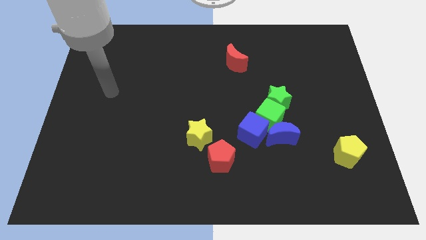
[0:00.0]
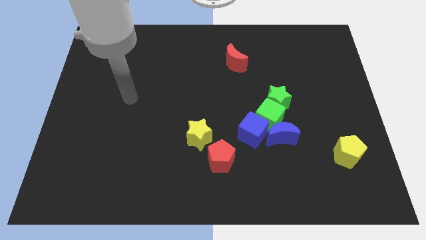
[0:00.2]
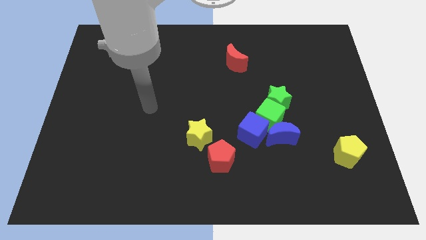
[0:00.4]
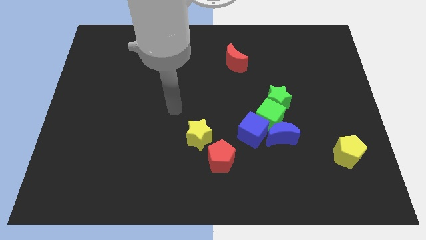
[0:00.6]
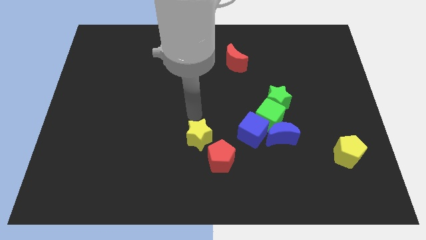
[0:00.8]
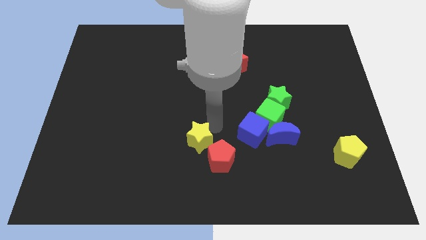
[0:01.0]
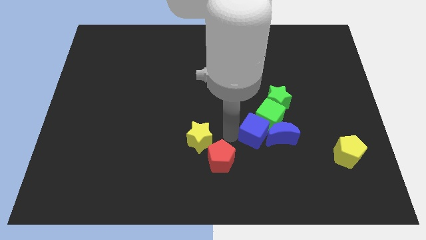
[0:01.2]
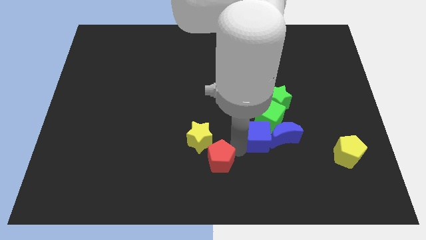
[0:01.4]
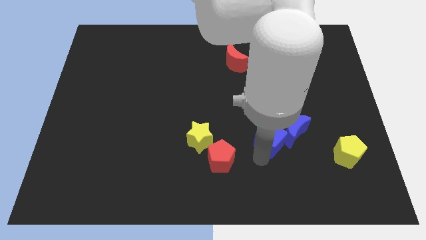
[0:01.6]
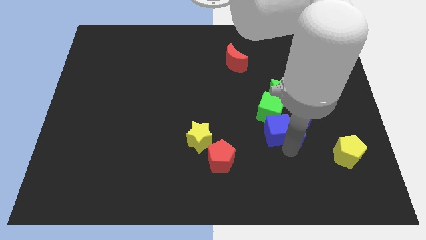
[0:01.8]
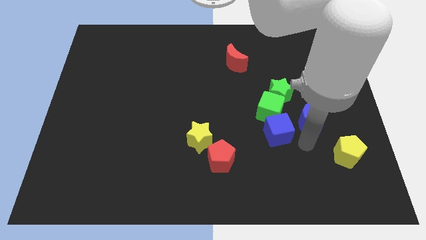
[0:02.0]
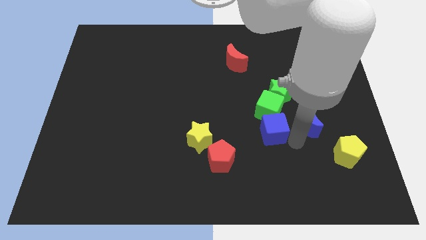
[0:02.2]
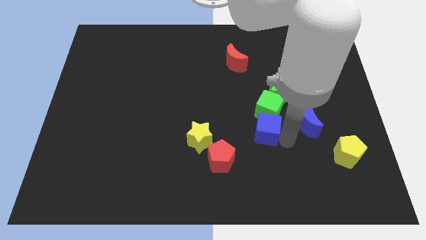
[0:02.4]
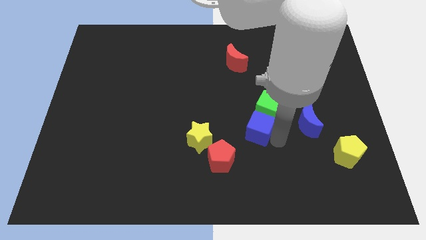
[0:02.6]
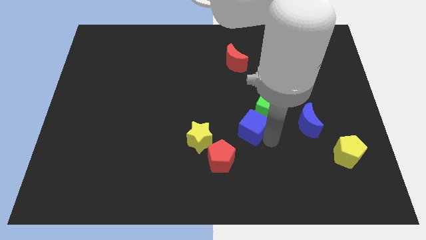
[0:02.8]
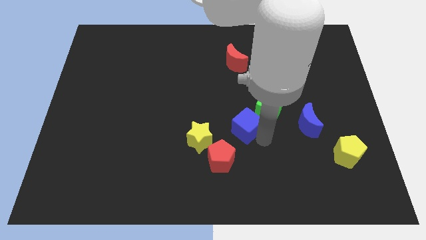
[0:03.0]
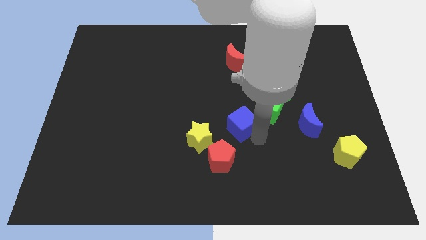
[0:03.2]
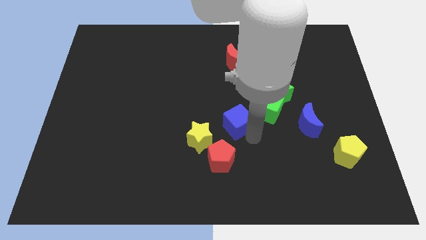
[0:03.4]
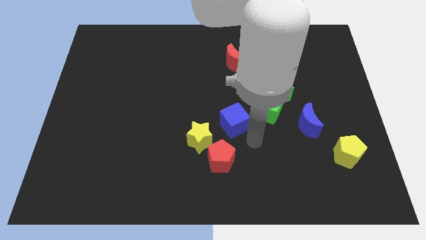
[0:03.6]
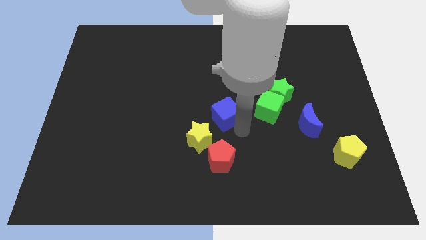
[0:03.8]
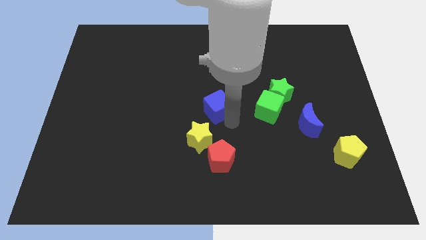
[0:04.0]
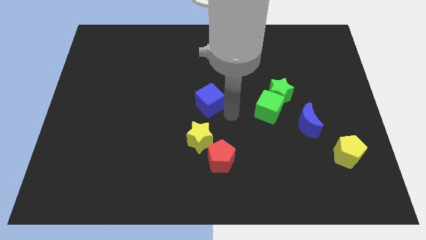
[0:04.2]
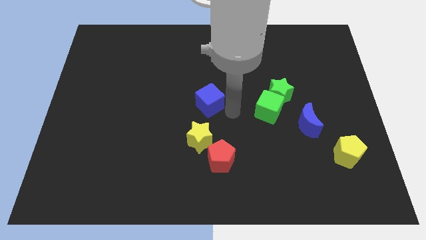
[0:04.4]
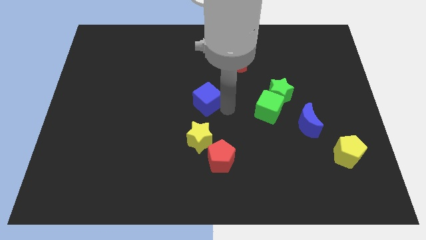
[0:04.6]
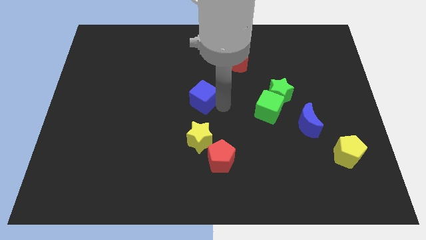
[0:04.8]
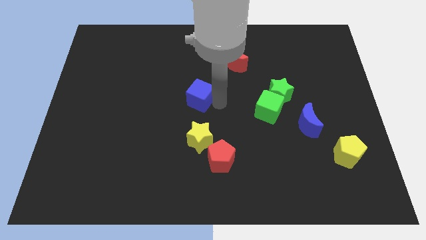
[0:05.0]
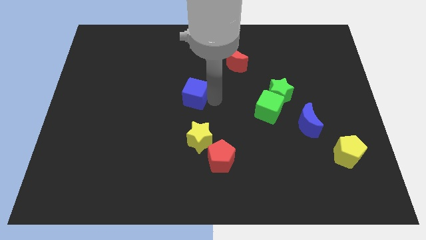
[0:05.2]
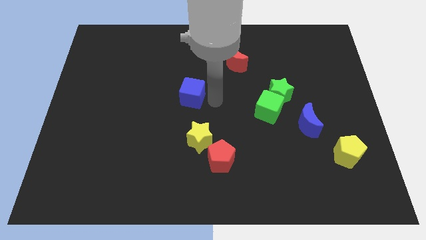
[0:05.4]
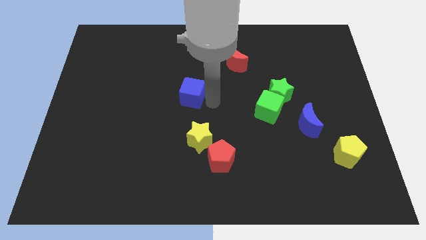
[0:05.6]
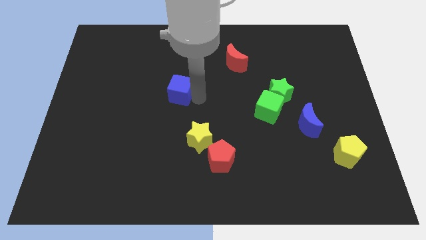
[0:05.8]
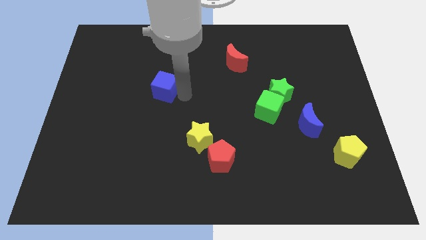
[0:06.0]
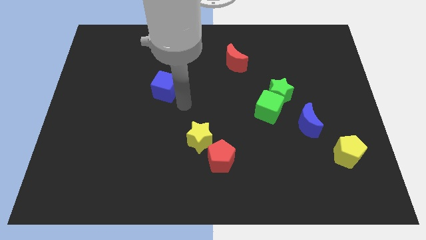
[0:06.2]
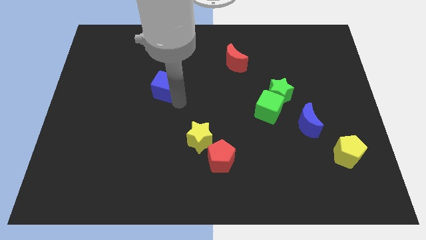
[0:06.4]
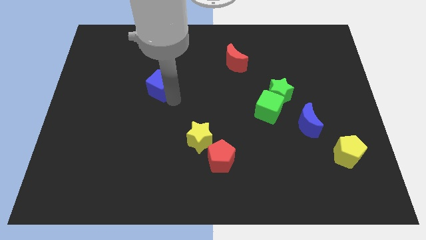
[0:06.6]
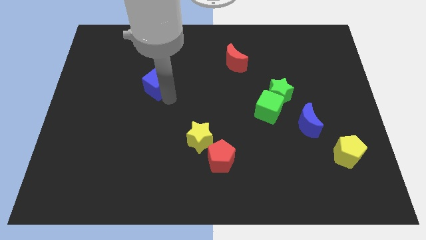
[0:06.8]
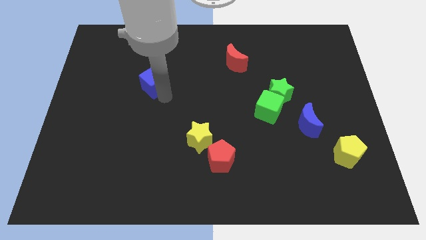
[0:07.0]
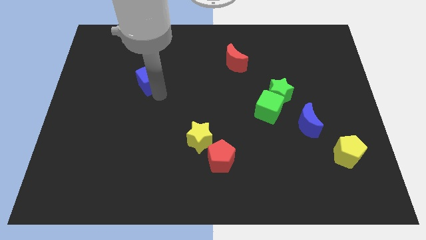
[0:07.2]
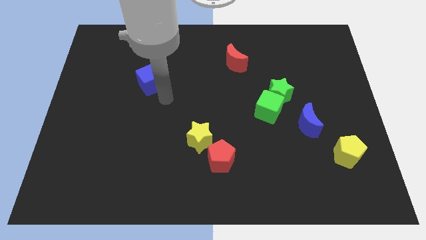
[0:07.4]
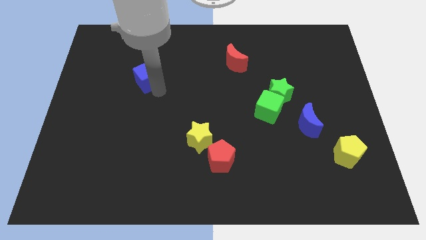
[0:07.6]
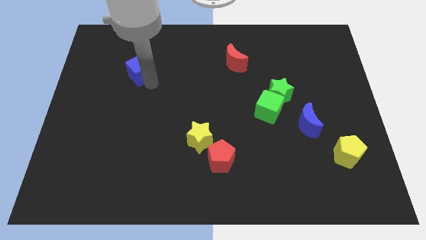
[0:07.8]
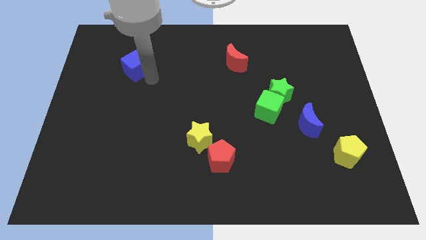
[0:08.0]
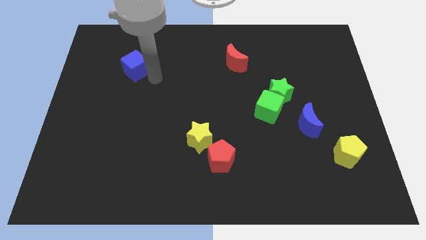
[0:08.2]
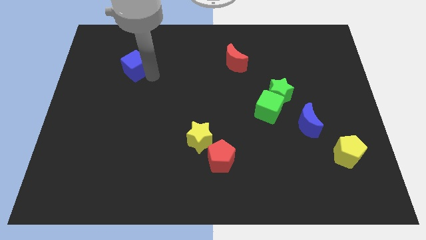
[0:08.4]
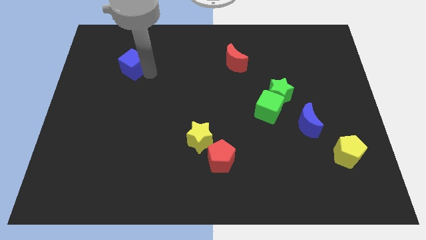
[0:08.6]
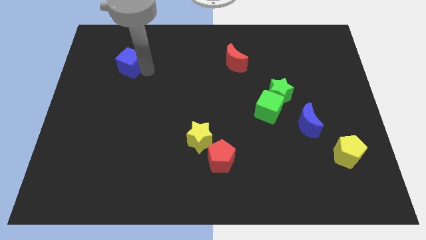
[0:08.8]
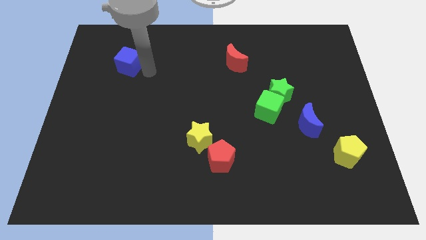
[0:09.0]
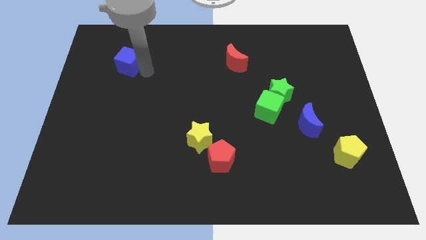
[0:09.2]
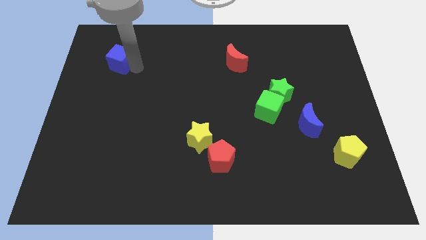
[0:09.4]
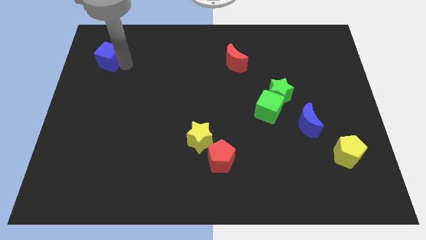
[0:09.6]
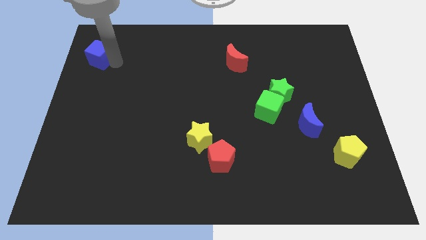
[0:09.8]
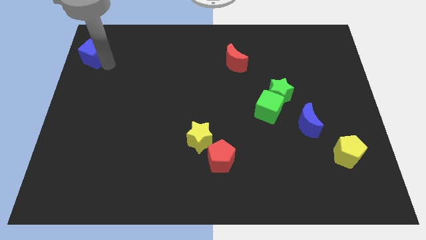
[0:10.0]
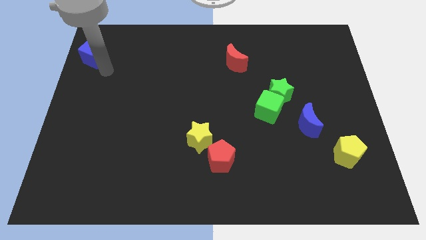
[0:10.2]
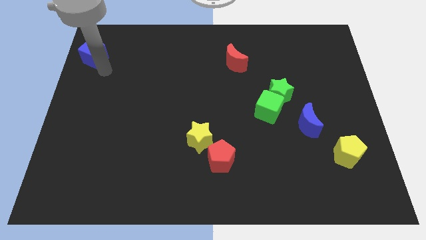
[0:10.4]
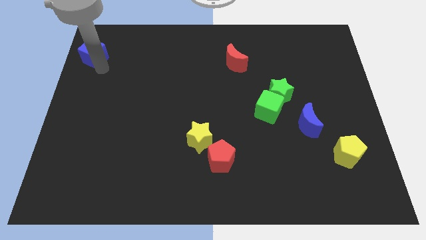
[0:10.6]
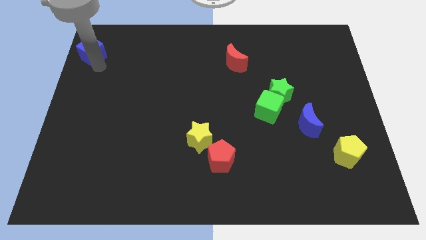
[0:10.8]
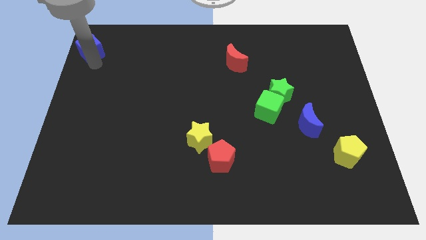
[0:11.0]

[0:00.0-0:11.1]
slide the blue cube to the top left

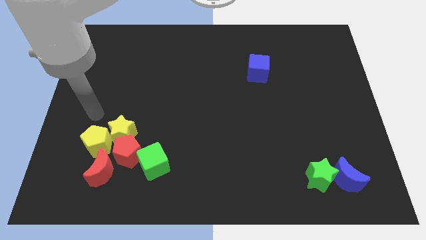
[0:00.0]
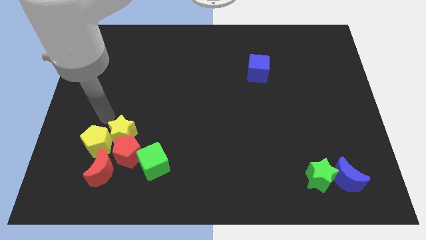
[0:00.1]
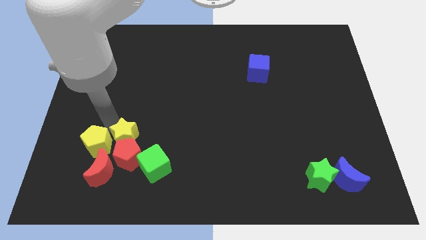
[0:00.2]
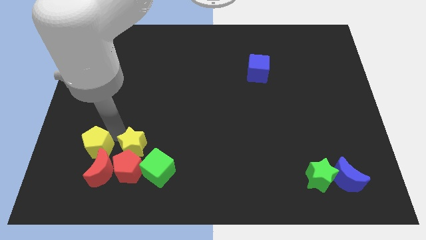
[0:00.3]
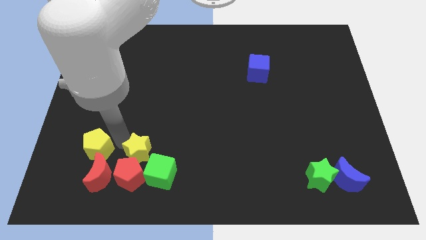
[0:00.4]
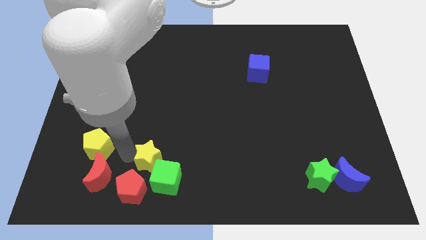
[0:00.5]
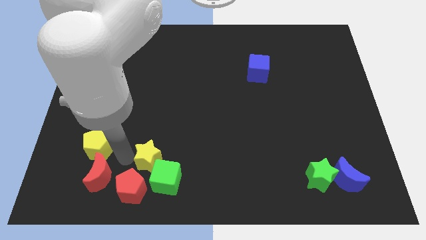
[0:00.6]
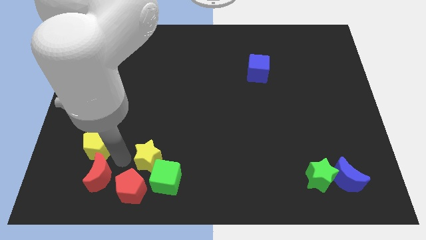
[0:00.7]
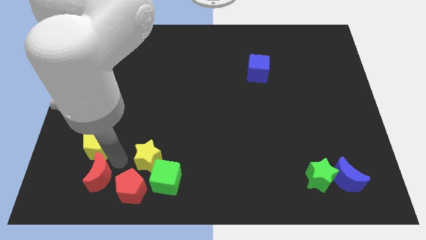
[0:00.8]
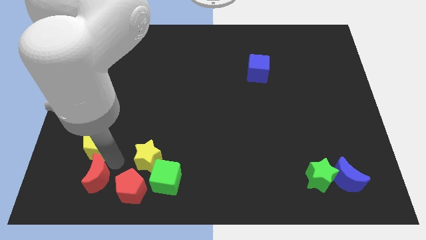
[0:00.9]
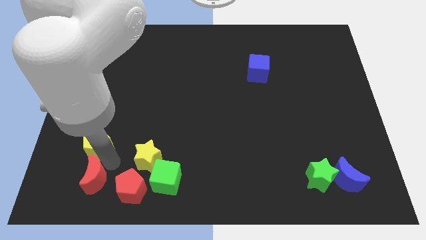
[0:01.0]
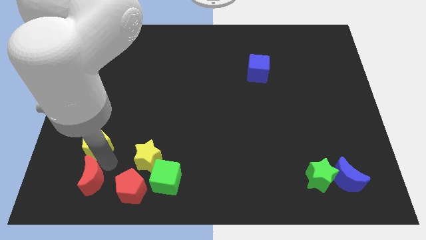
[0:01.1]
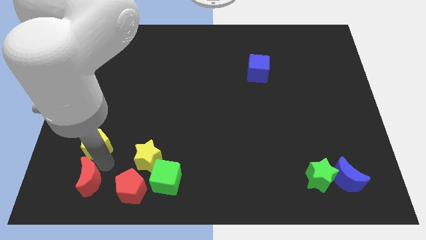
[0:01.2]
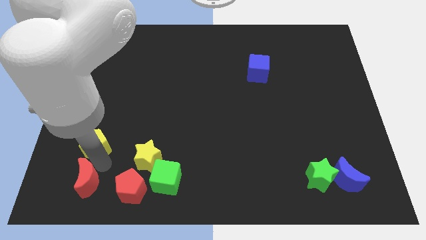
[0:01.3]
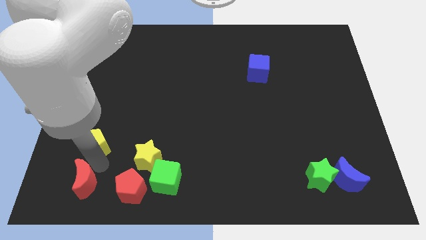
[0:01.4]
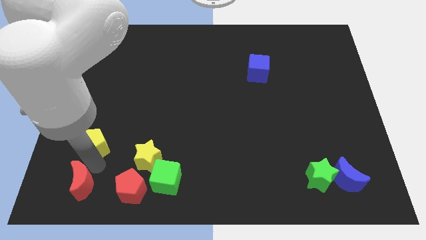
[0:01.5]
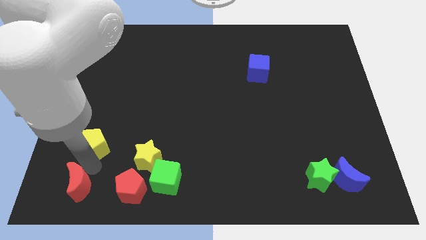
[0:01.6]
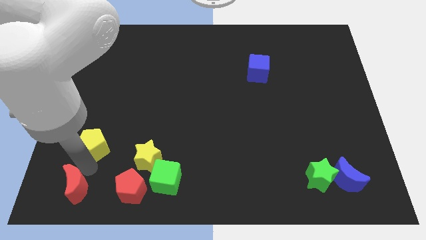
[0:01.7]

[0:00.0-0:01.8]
move the red moon to the lower left corner
